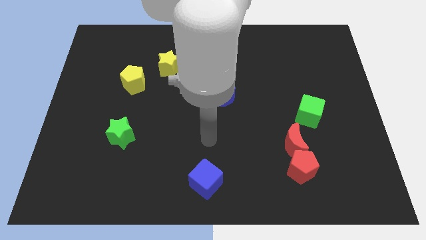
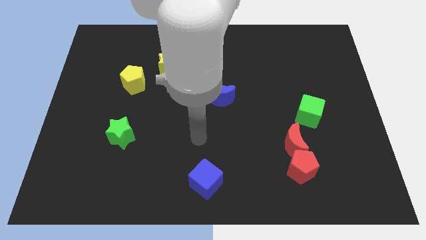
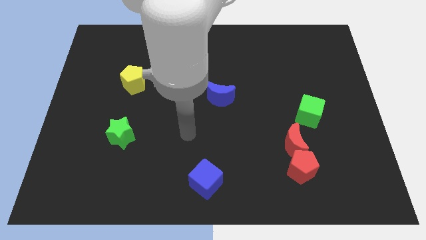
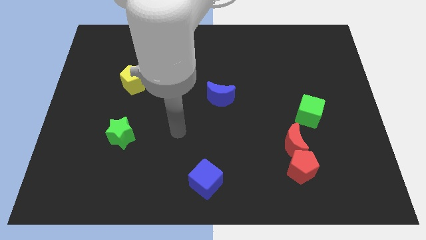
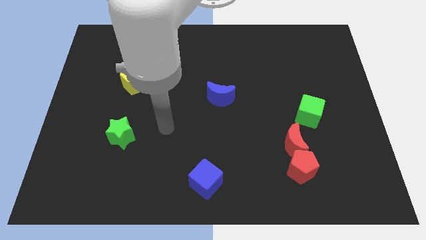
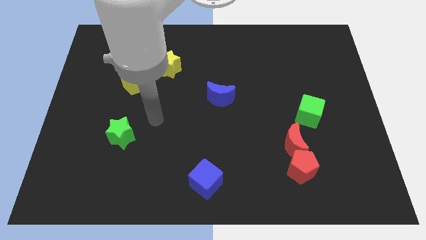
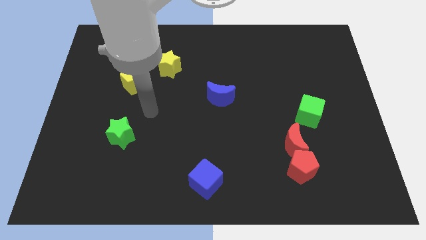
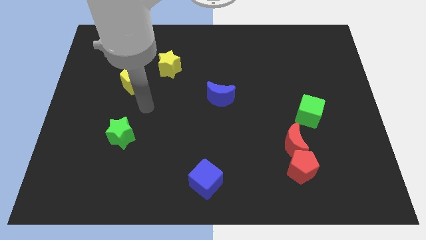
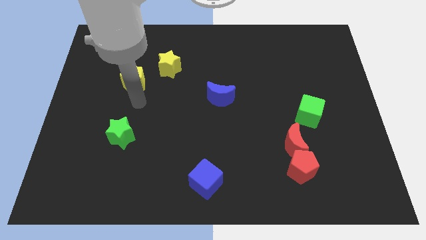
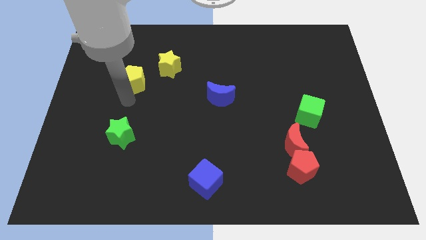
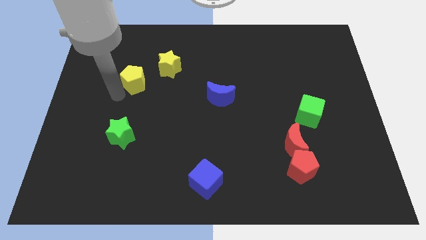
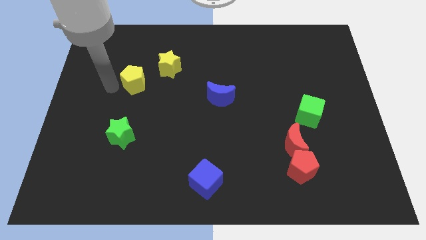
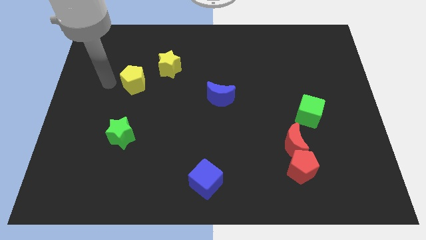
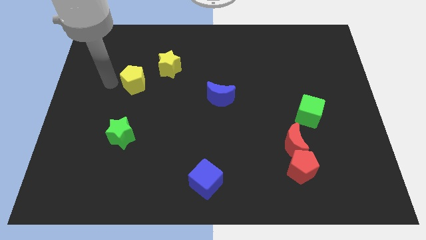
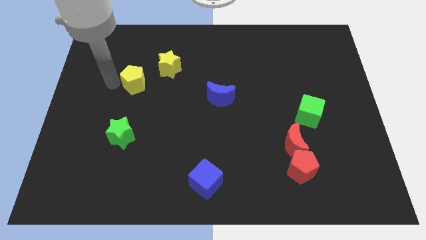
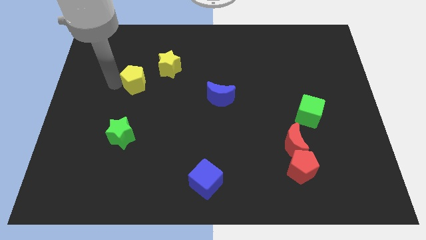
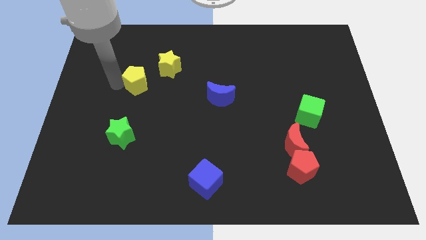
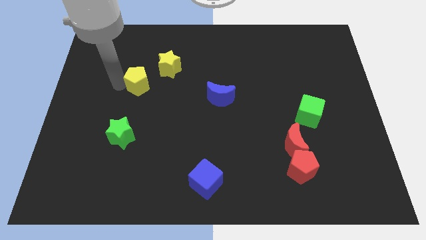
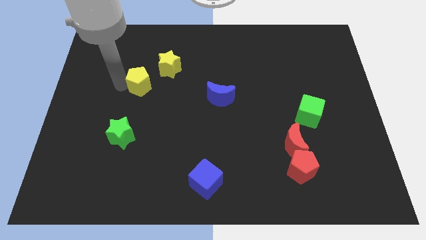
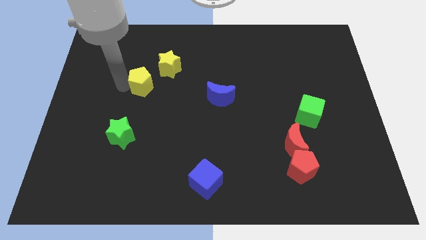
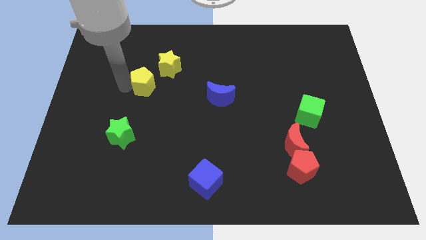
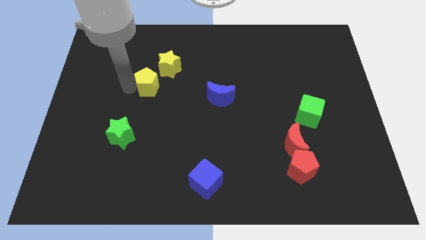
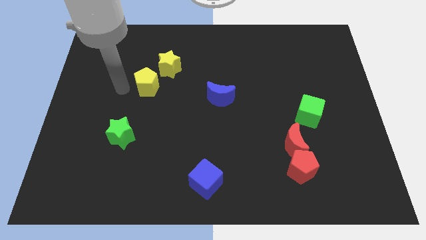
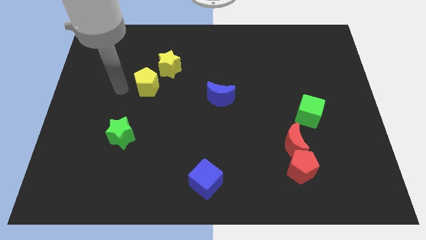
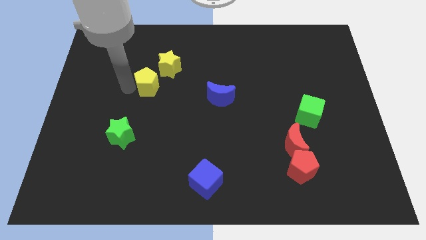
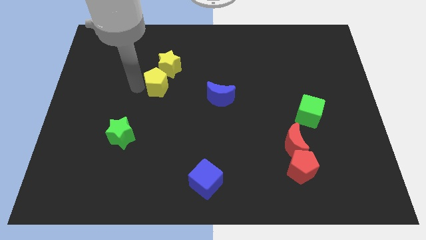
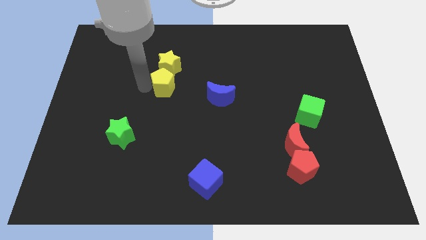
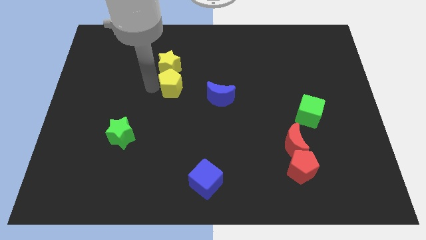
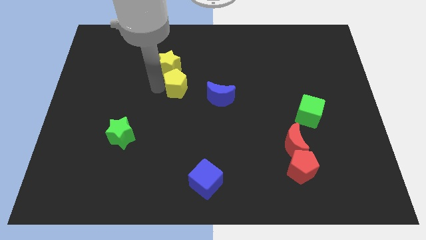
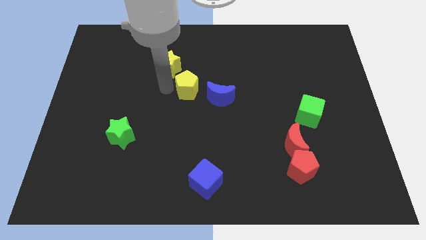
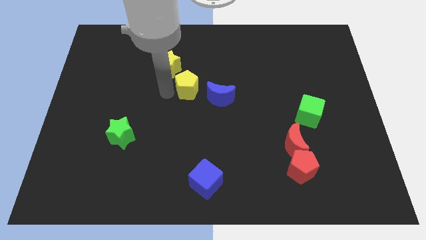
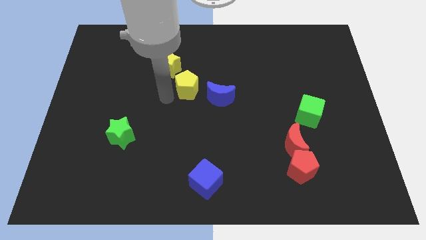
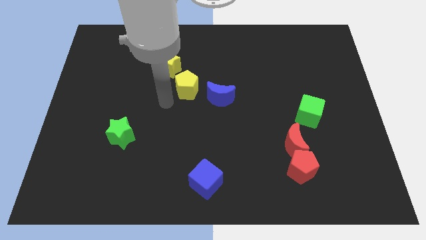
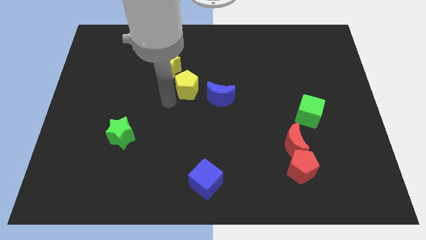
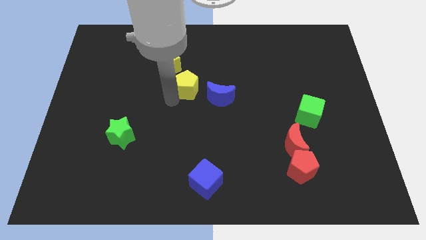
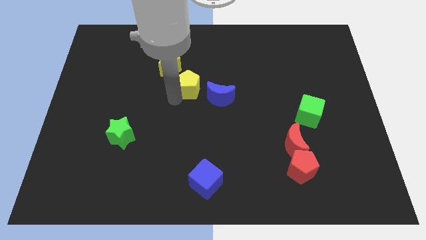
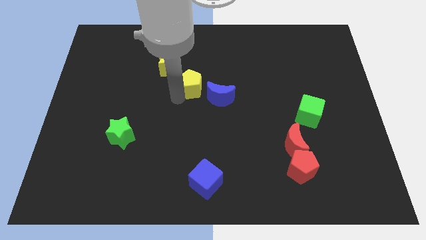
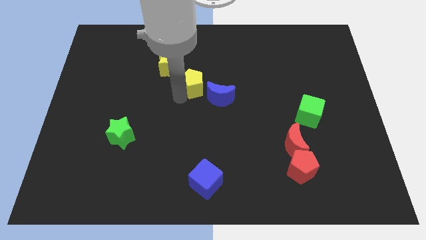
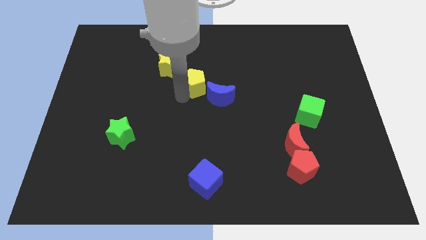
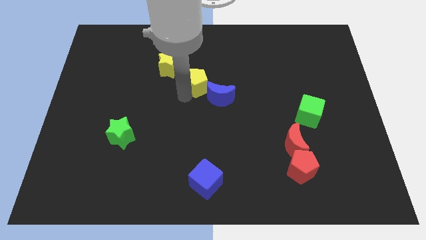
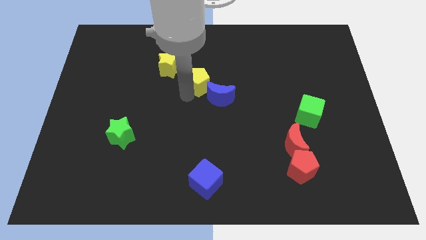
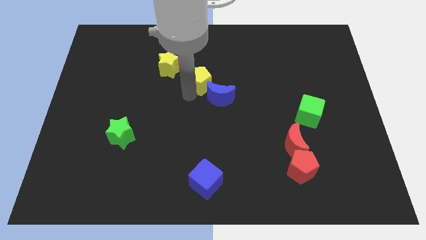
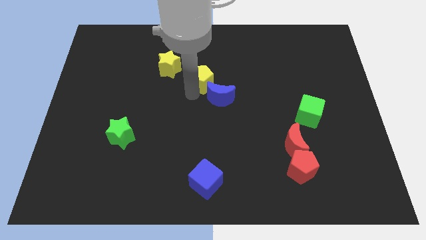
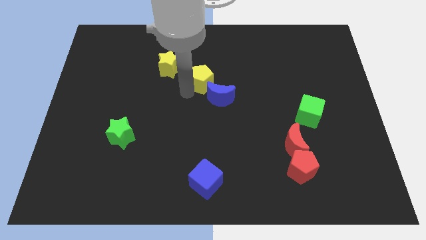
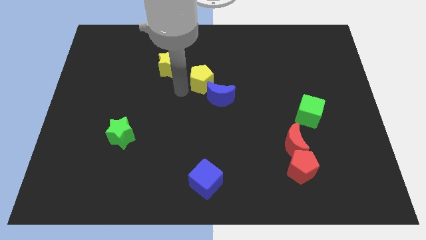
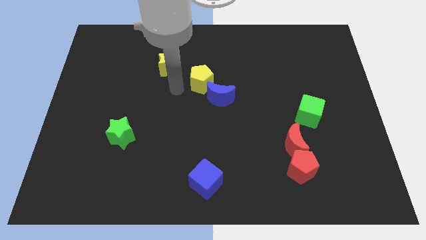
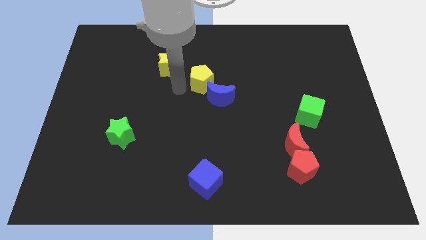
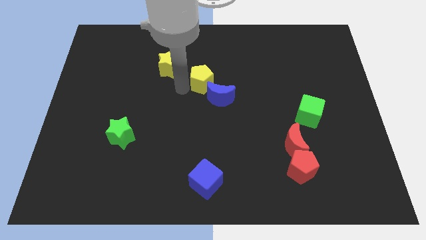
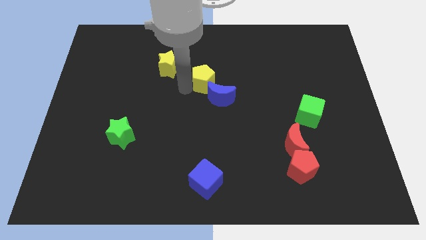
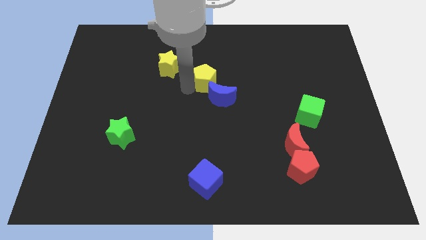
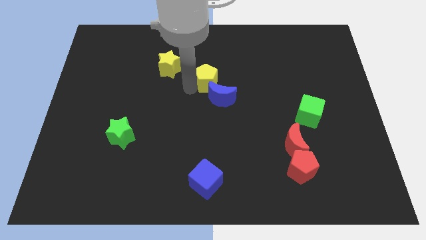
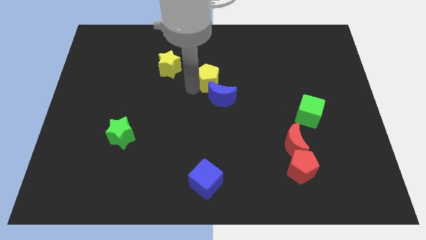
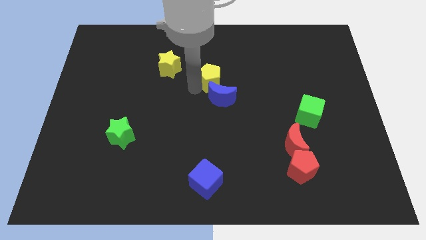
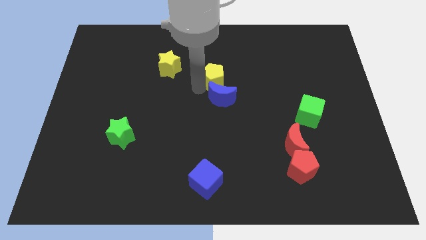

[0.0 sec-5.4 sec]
move the yellow pentagon to the right

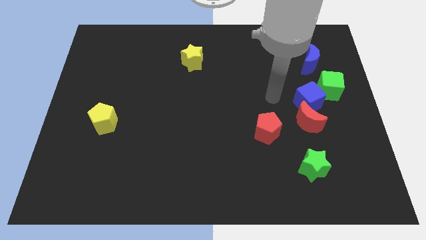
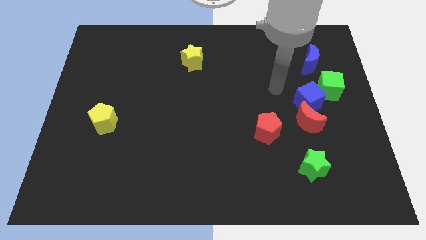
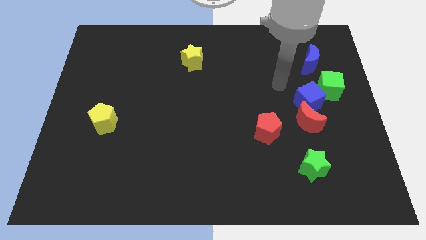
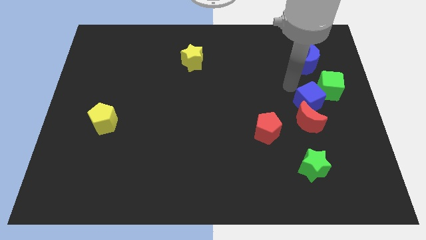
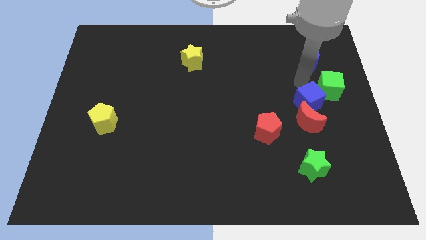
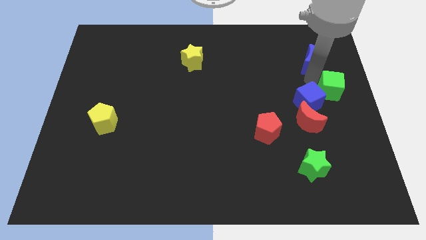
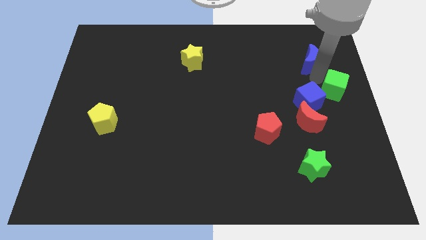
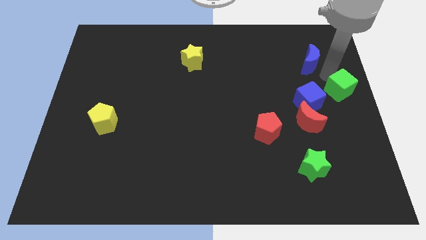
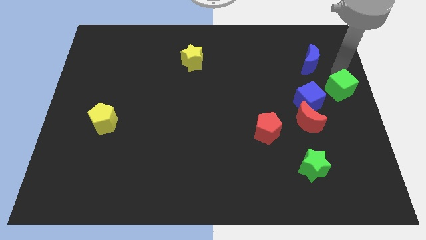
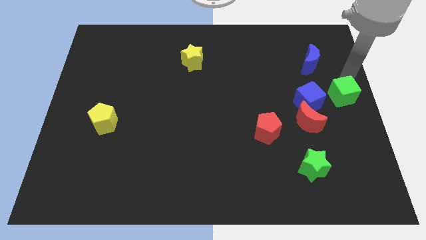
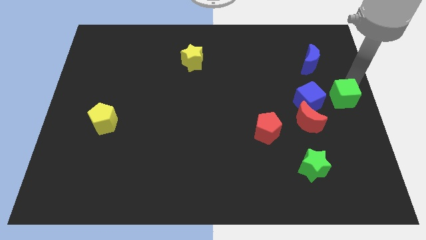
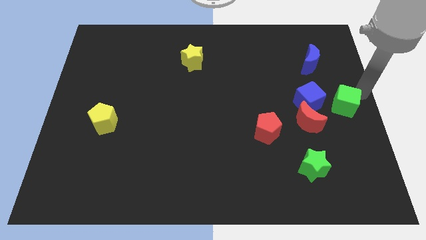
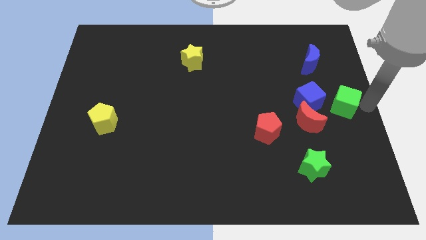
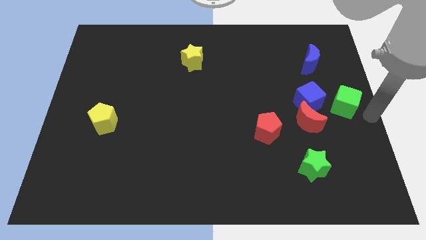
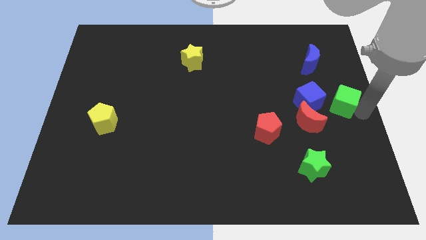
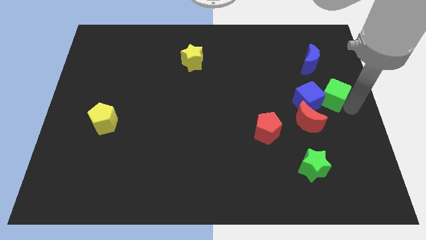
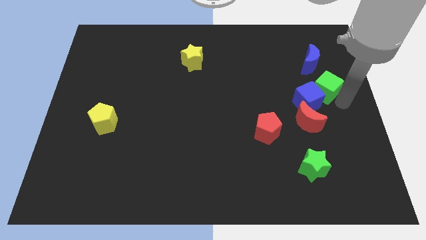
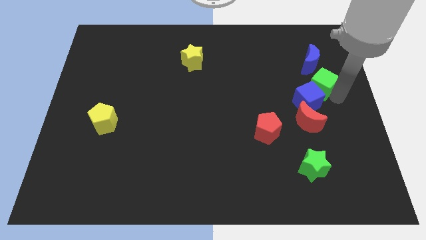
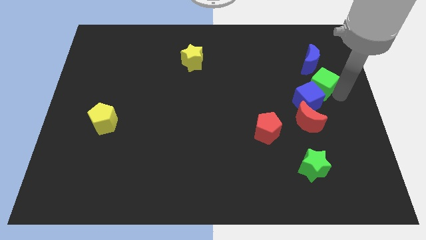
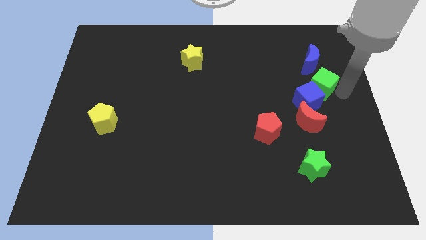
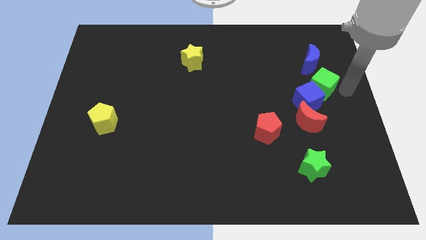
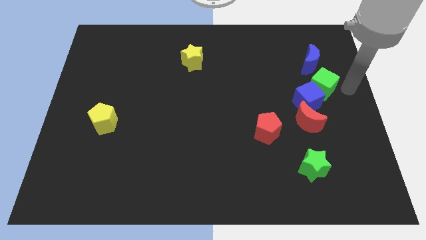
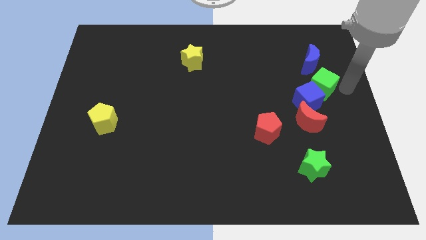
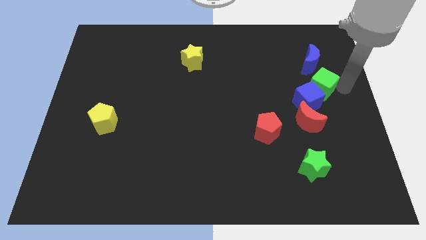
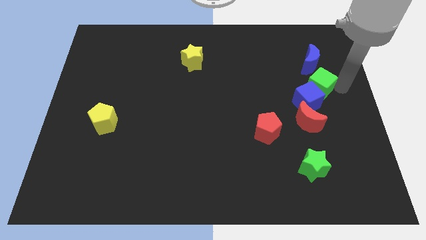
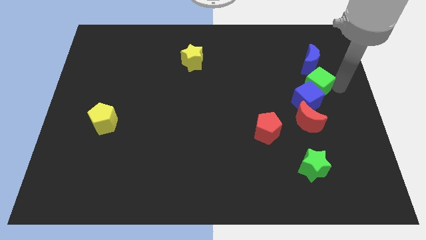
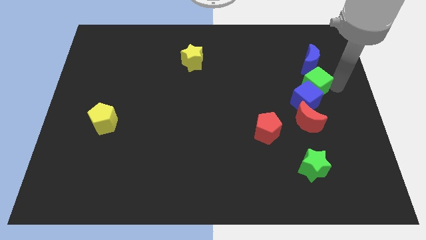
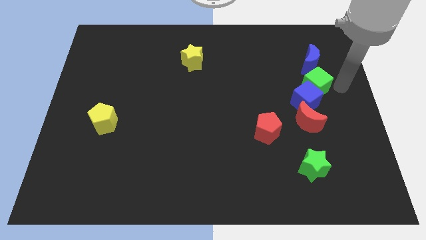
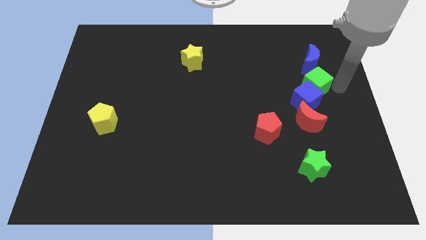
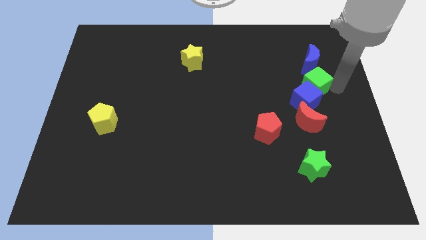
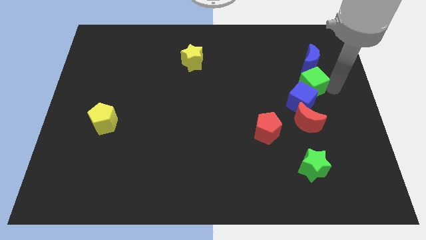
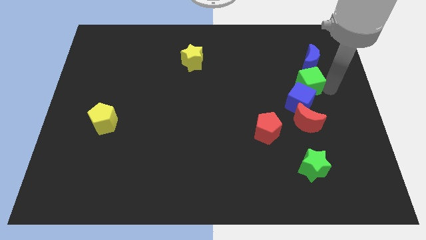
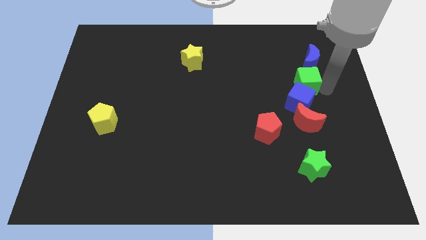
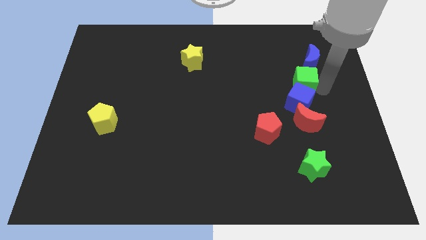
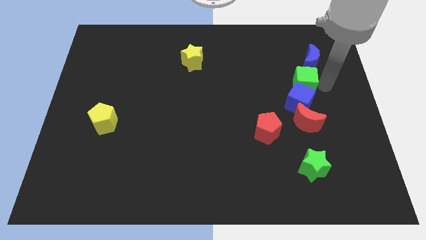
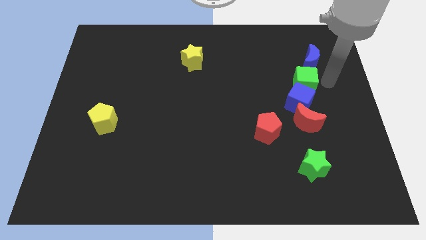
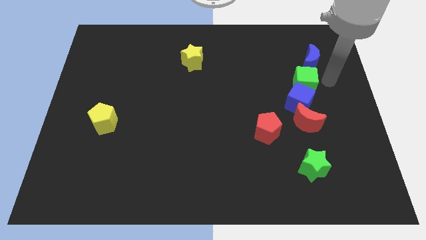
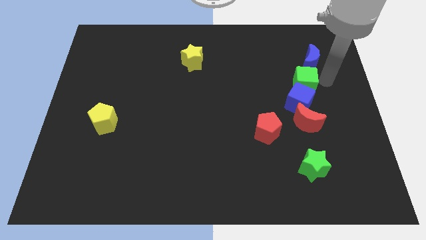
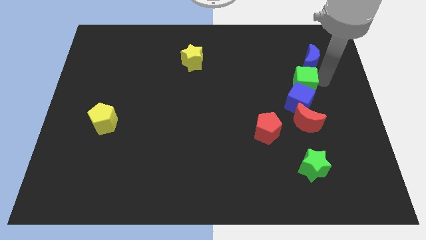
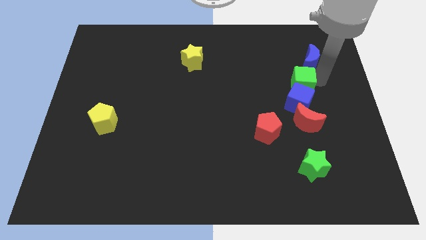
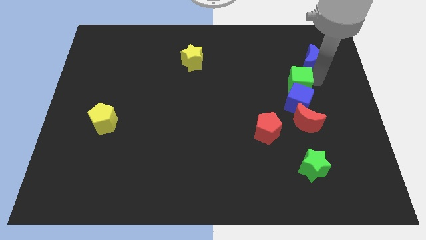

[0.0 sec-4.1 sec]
move the green cube left a bit
